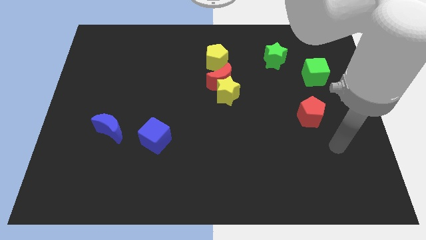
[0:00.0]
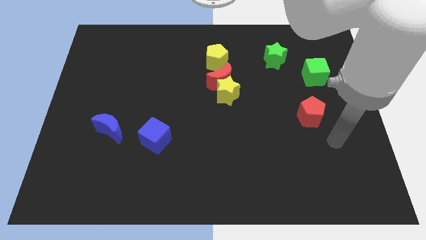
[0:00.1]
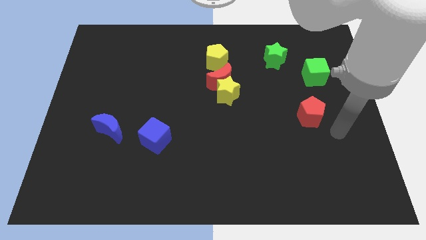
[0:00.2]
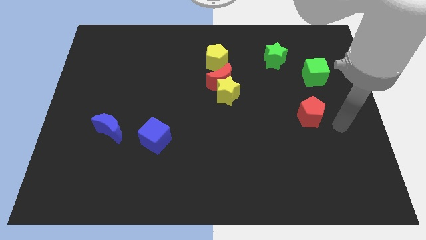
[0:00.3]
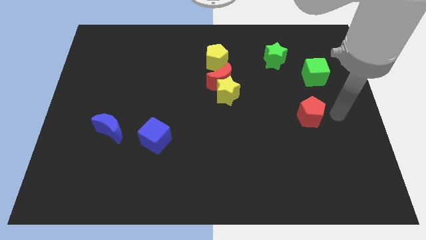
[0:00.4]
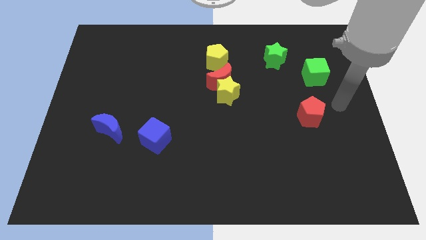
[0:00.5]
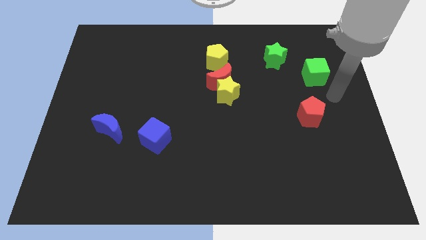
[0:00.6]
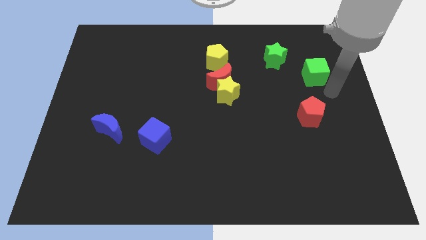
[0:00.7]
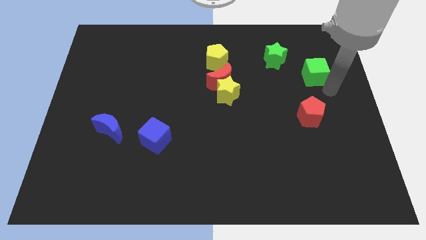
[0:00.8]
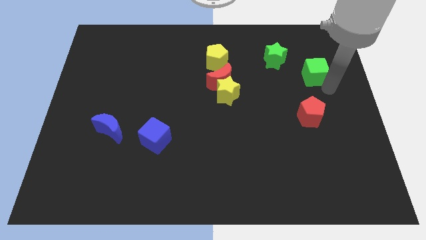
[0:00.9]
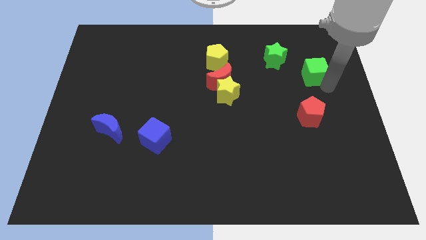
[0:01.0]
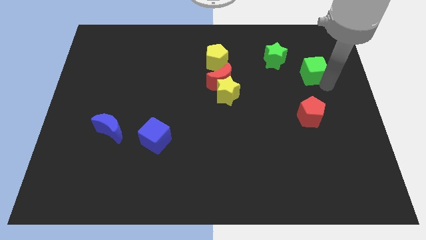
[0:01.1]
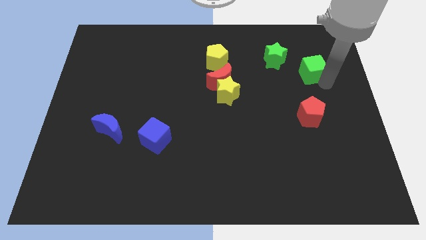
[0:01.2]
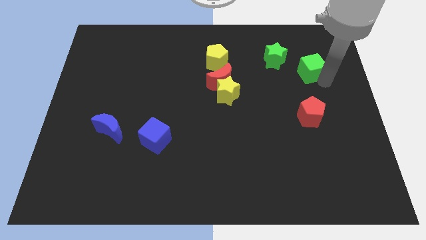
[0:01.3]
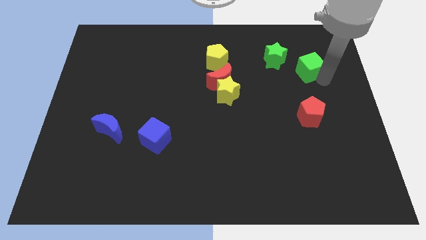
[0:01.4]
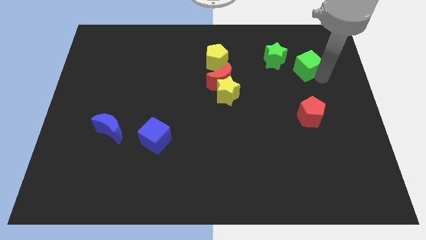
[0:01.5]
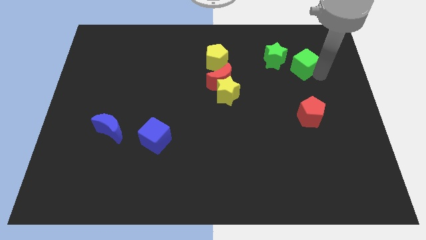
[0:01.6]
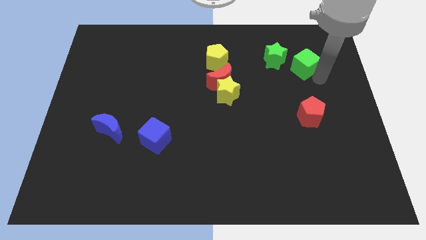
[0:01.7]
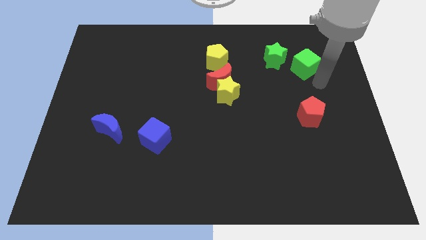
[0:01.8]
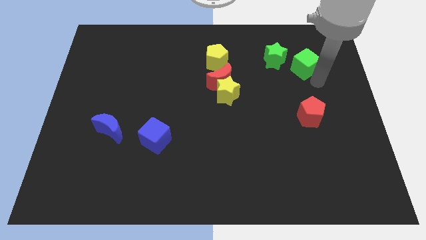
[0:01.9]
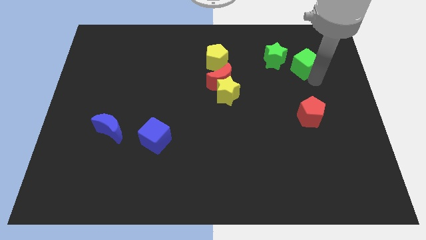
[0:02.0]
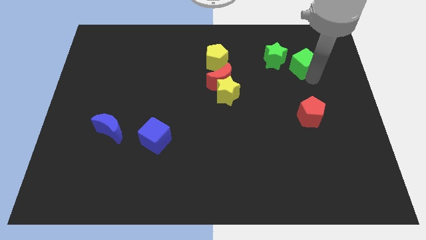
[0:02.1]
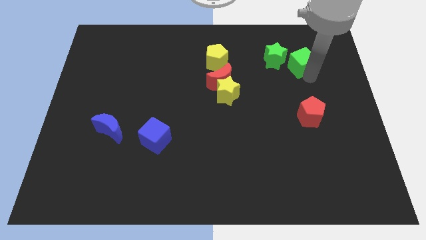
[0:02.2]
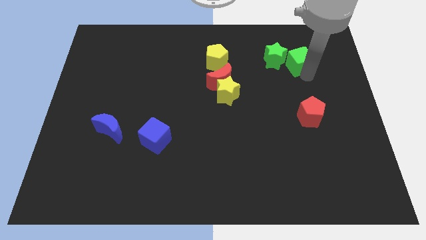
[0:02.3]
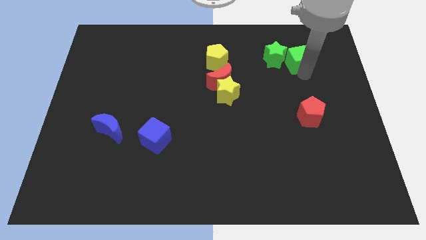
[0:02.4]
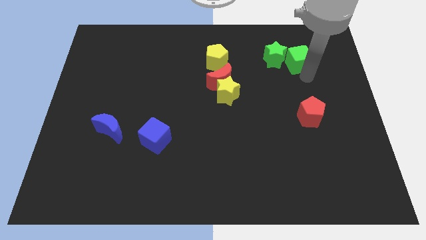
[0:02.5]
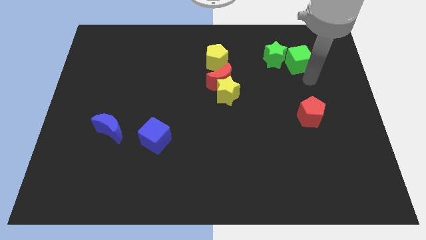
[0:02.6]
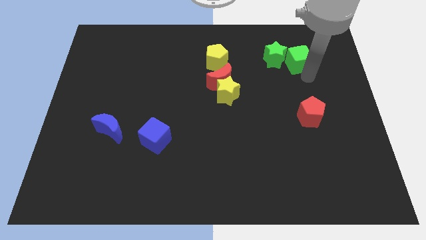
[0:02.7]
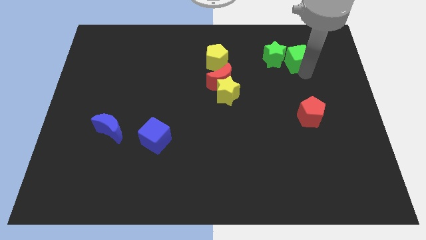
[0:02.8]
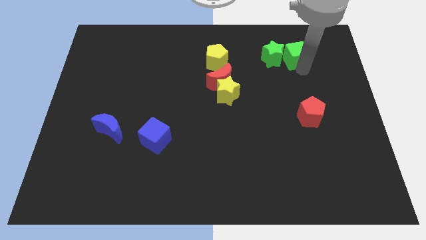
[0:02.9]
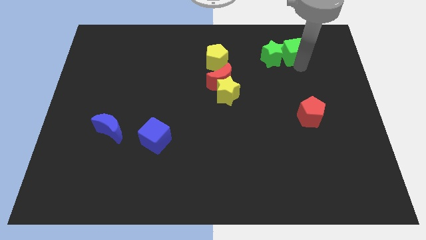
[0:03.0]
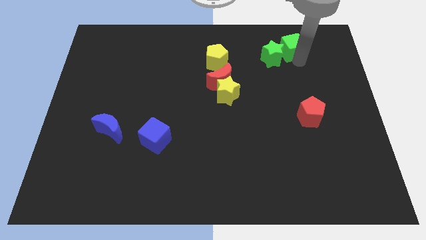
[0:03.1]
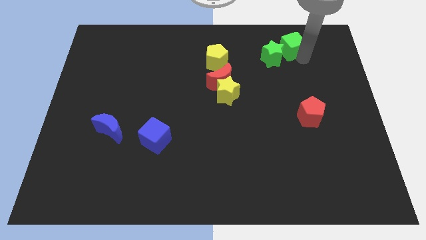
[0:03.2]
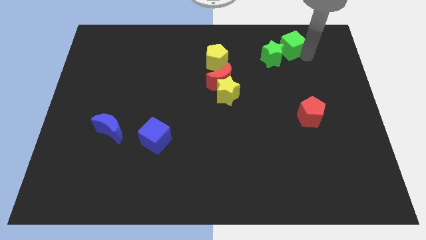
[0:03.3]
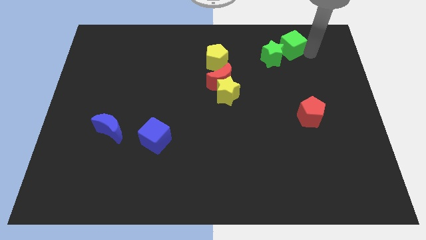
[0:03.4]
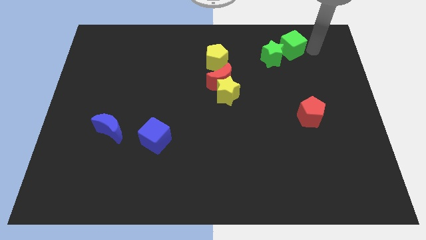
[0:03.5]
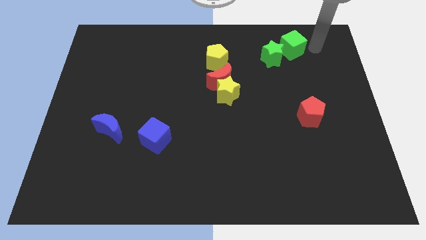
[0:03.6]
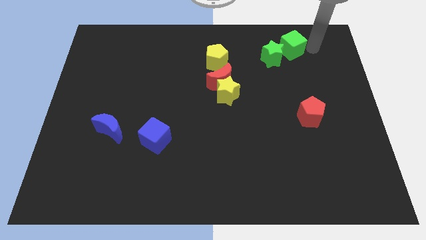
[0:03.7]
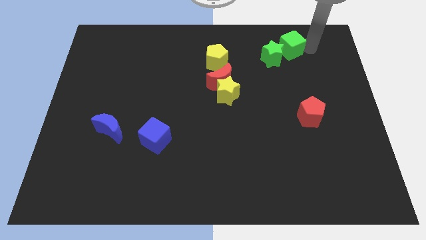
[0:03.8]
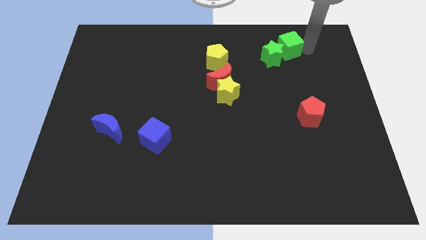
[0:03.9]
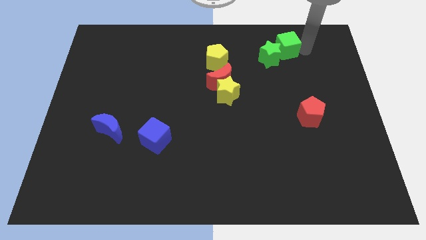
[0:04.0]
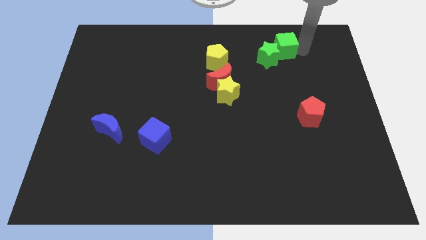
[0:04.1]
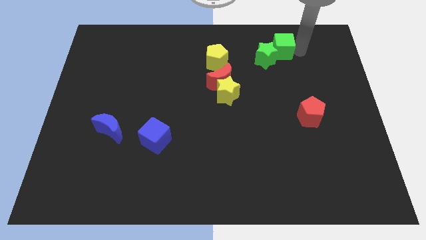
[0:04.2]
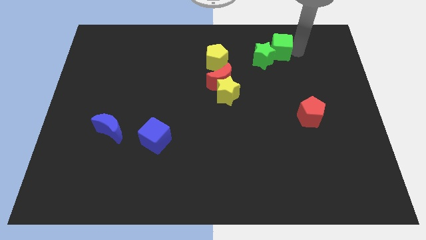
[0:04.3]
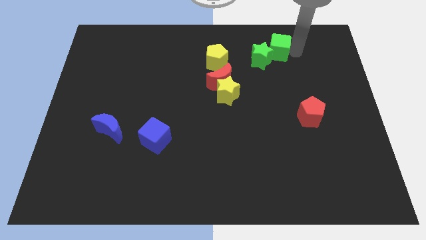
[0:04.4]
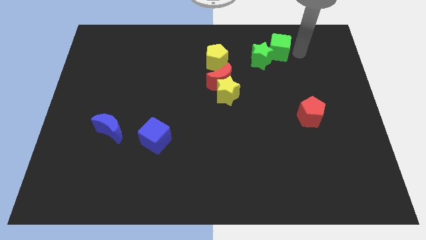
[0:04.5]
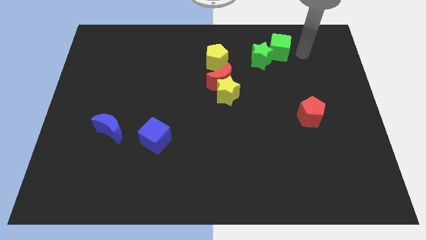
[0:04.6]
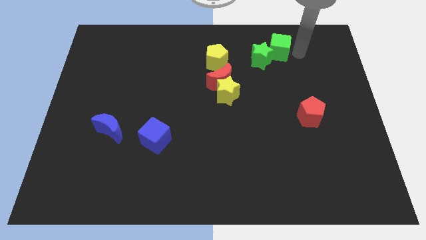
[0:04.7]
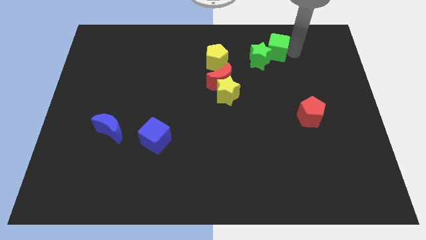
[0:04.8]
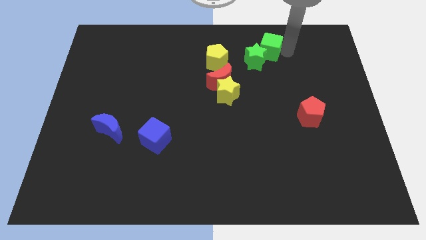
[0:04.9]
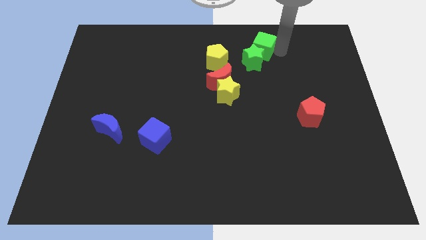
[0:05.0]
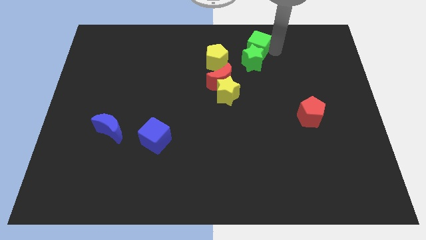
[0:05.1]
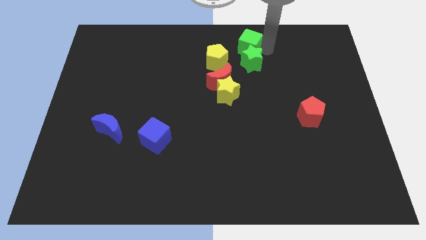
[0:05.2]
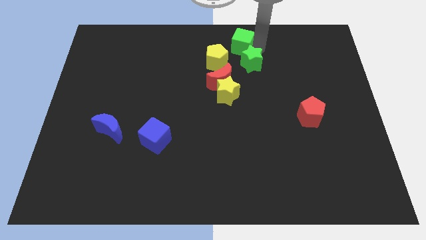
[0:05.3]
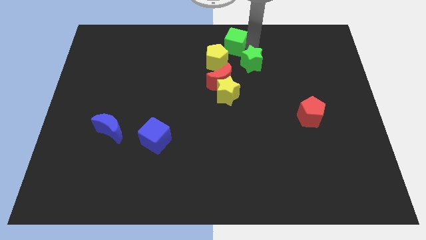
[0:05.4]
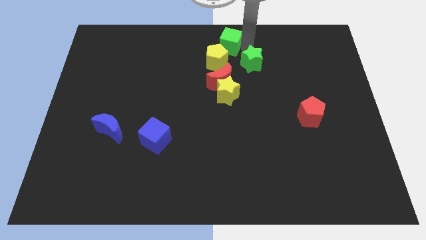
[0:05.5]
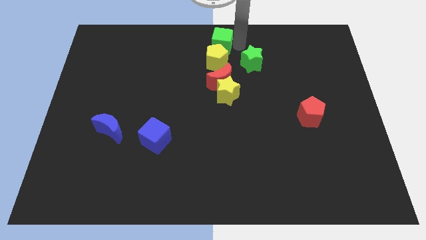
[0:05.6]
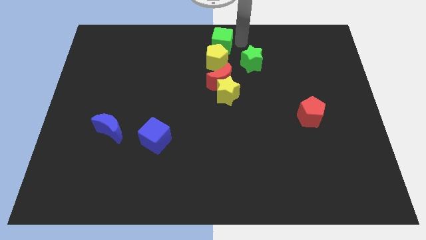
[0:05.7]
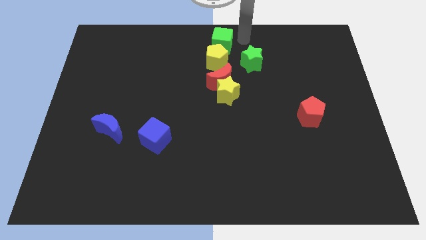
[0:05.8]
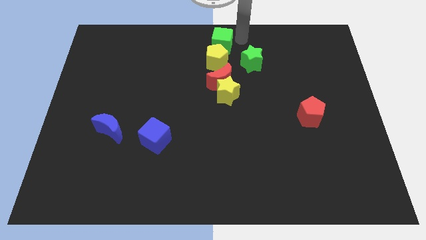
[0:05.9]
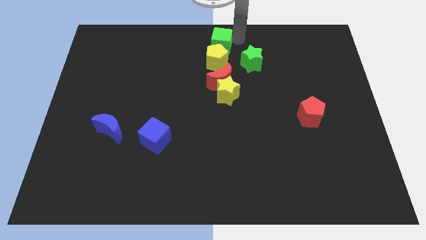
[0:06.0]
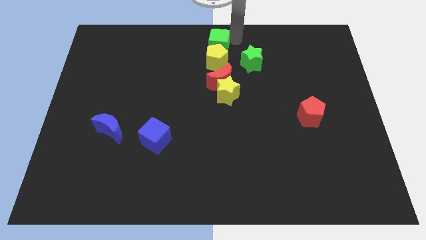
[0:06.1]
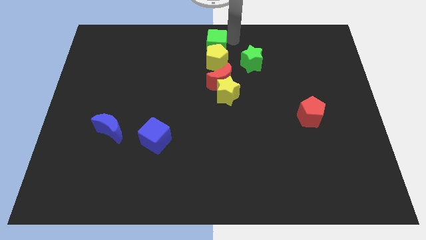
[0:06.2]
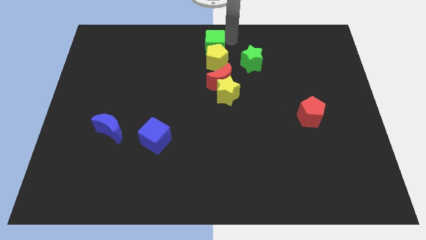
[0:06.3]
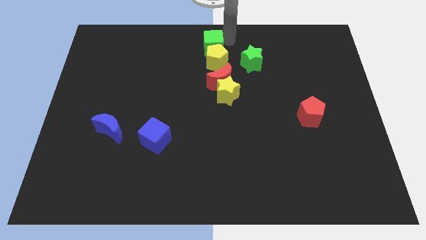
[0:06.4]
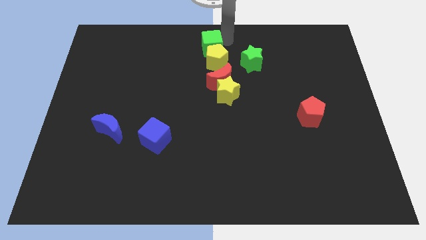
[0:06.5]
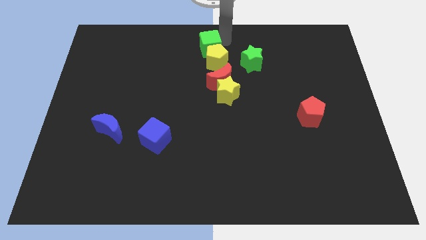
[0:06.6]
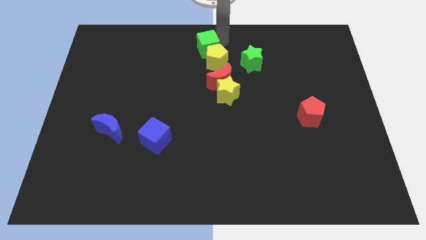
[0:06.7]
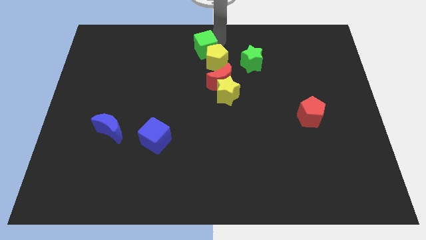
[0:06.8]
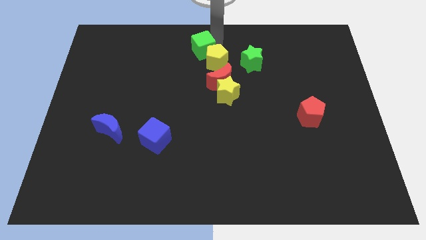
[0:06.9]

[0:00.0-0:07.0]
put the green cube to the left side of the yellow pentagon
